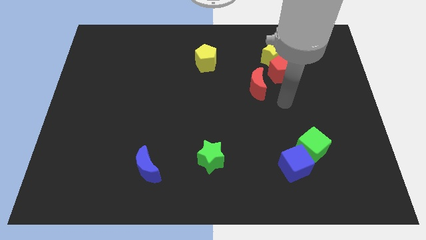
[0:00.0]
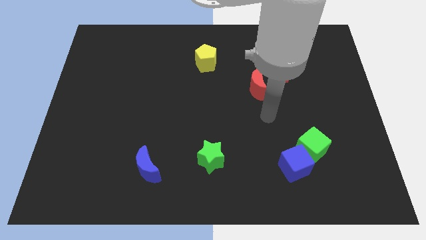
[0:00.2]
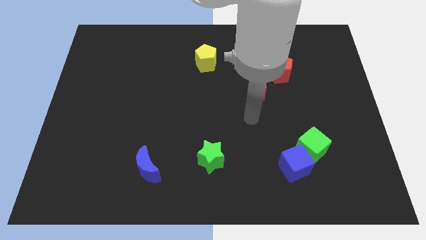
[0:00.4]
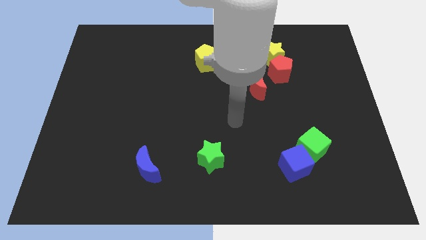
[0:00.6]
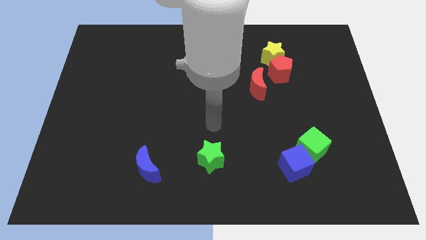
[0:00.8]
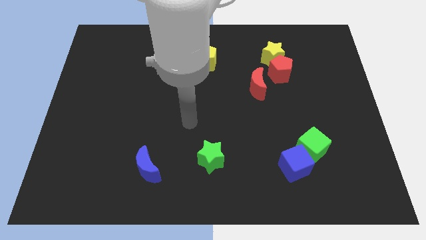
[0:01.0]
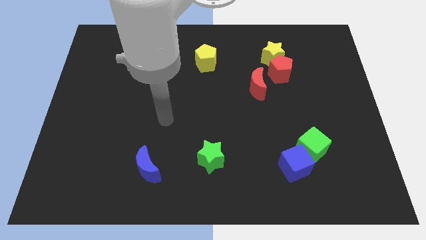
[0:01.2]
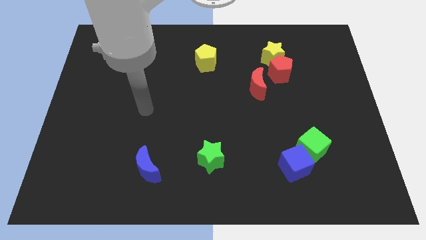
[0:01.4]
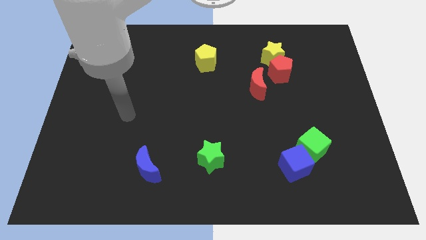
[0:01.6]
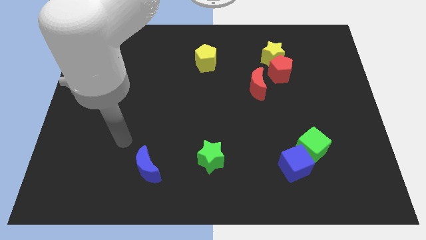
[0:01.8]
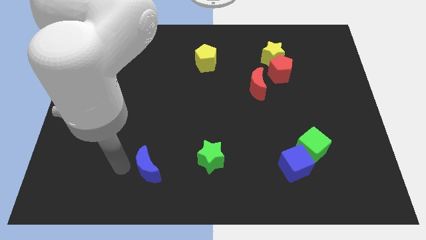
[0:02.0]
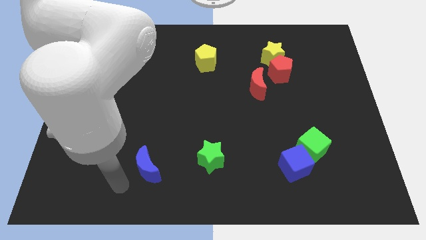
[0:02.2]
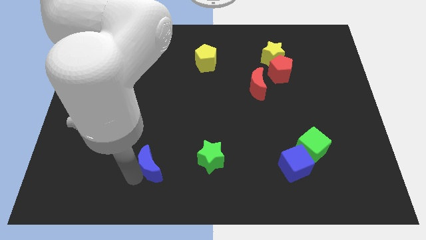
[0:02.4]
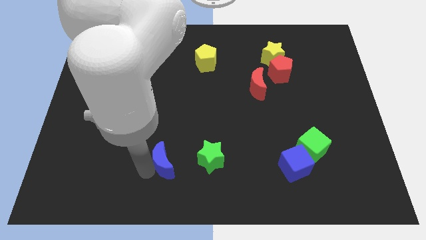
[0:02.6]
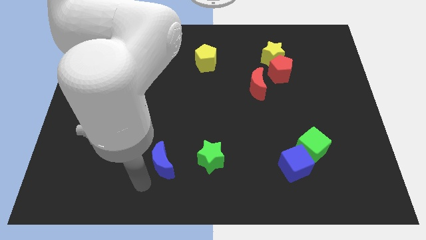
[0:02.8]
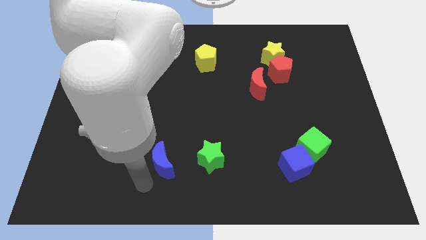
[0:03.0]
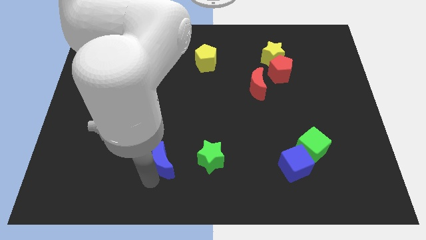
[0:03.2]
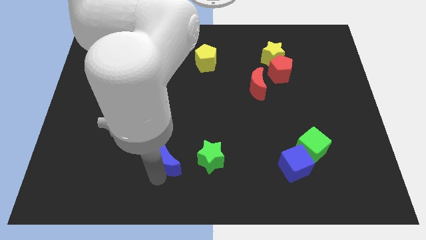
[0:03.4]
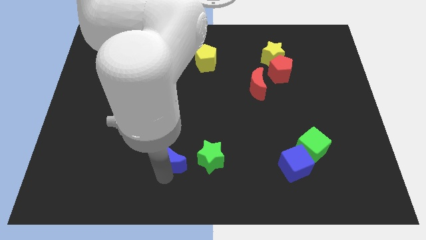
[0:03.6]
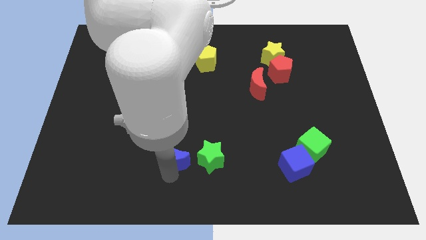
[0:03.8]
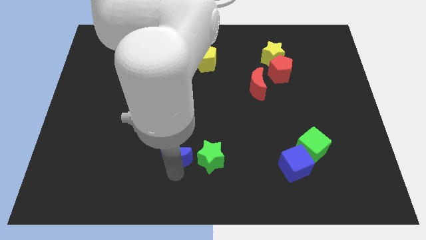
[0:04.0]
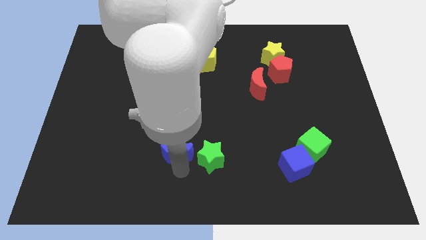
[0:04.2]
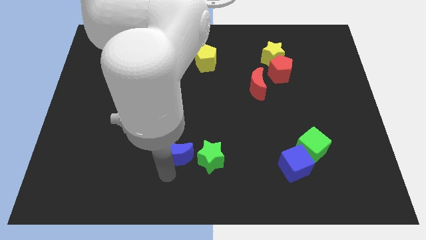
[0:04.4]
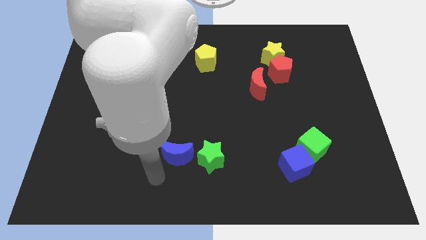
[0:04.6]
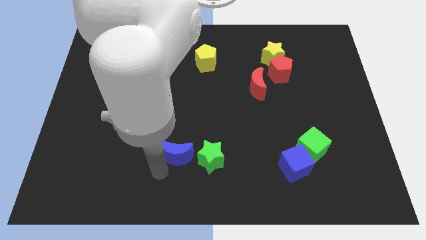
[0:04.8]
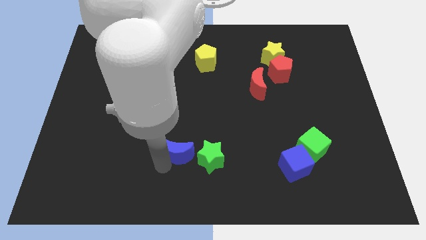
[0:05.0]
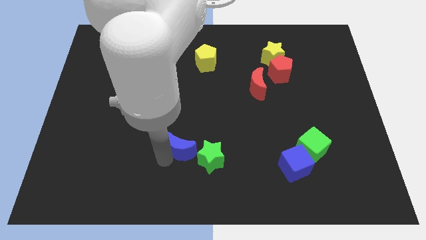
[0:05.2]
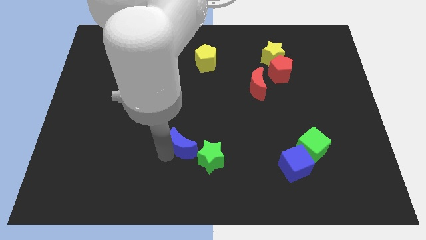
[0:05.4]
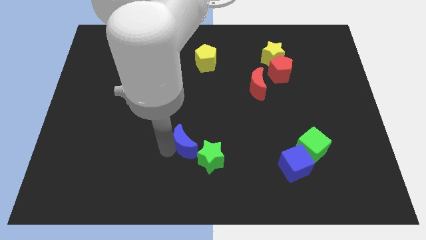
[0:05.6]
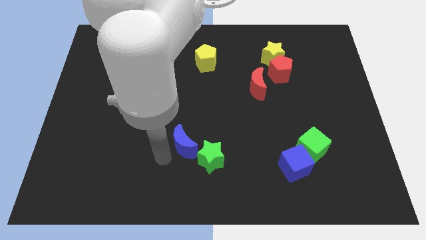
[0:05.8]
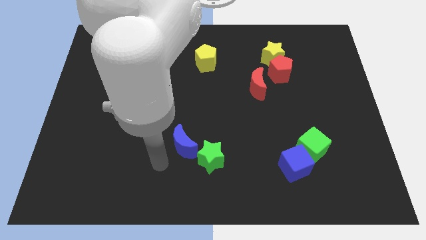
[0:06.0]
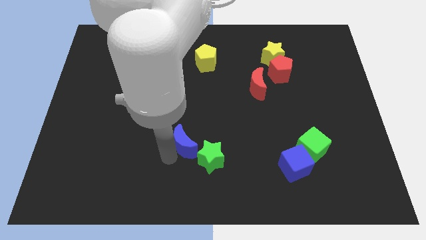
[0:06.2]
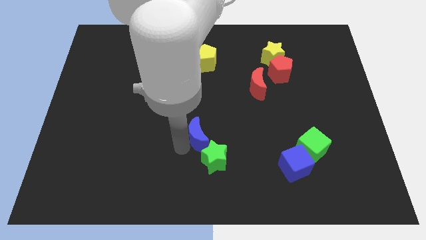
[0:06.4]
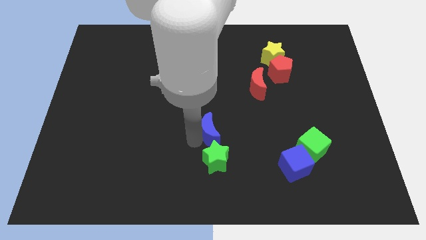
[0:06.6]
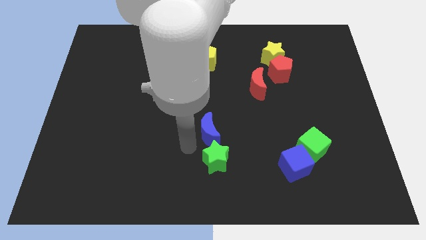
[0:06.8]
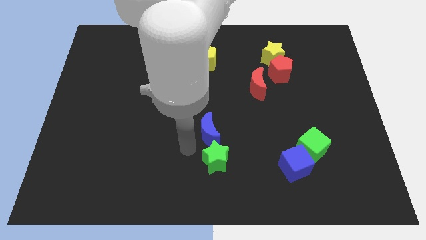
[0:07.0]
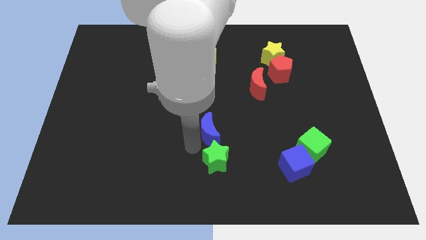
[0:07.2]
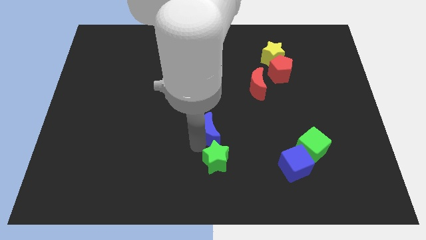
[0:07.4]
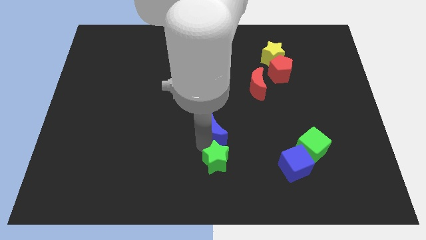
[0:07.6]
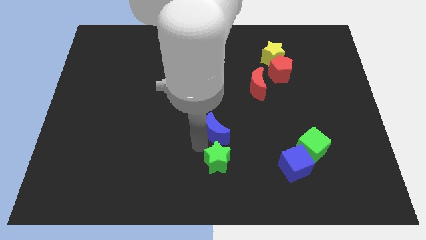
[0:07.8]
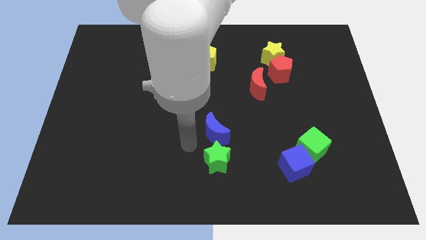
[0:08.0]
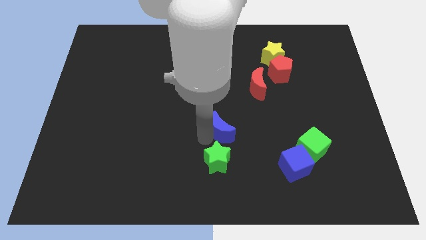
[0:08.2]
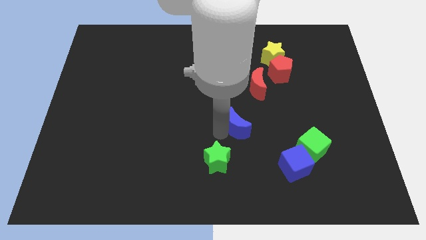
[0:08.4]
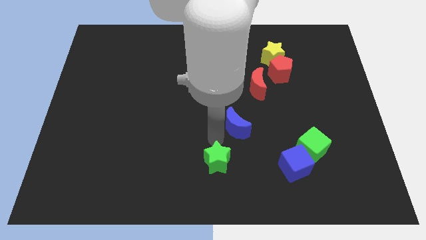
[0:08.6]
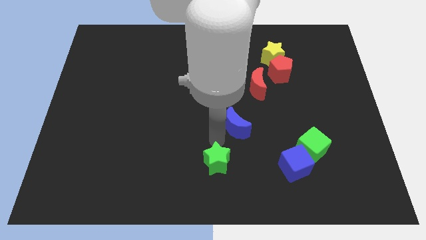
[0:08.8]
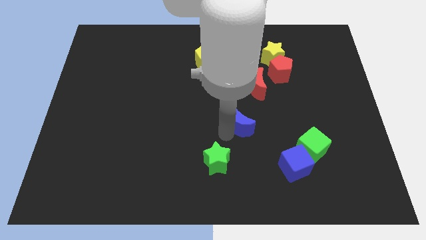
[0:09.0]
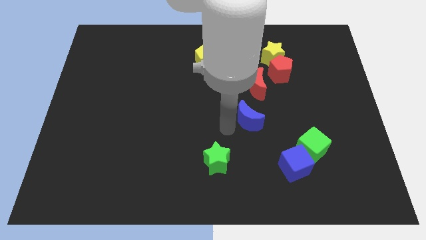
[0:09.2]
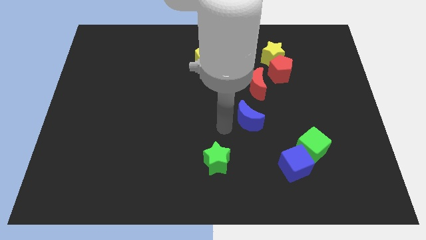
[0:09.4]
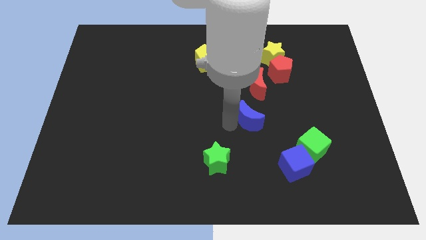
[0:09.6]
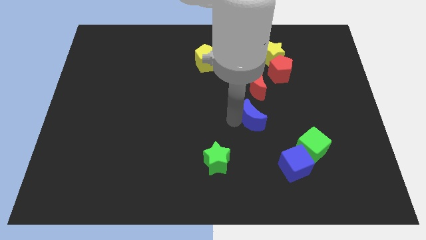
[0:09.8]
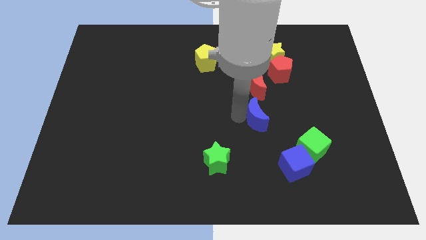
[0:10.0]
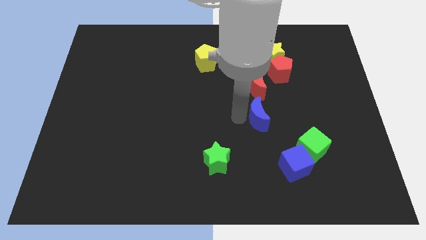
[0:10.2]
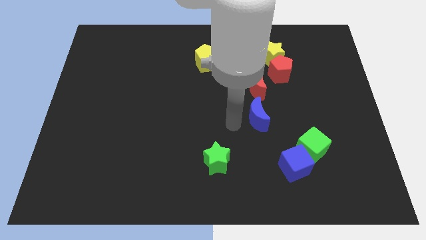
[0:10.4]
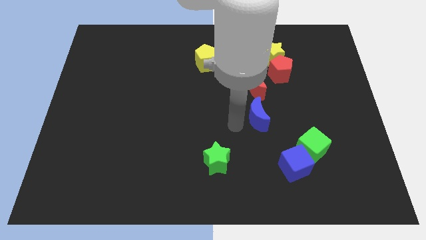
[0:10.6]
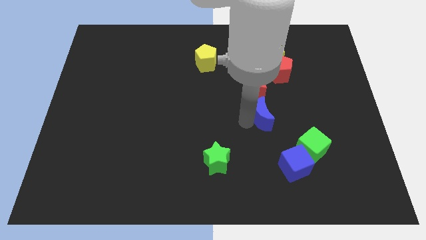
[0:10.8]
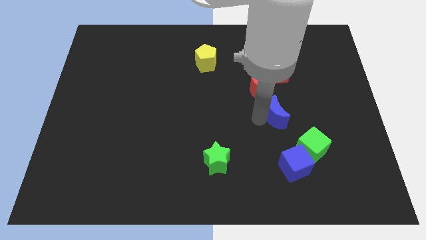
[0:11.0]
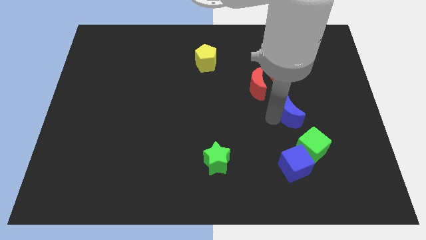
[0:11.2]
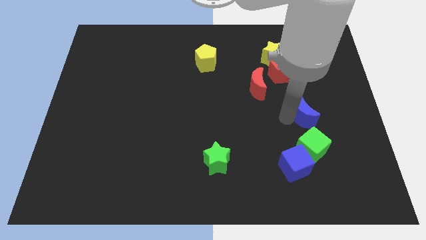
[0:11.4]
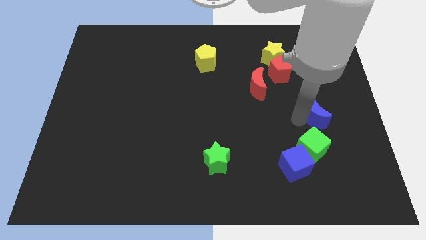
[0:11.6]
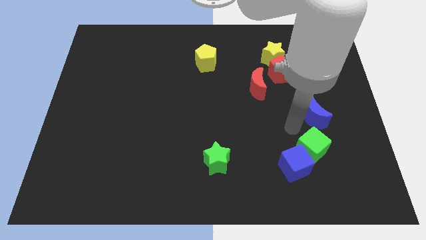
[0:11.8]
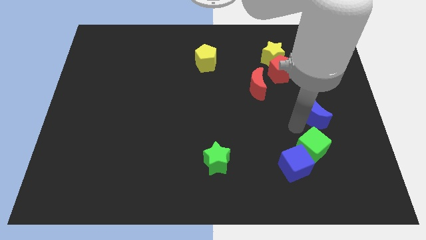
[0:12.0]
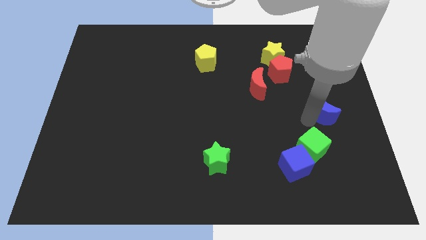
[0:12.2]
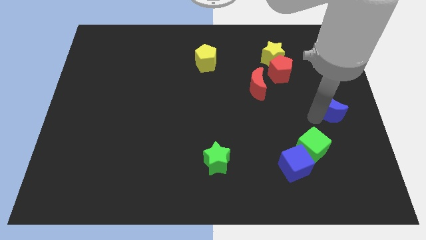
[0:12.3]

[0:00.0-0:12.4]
push the blue moon to the right side of the board

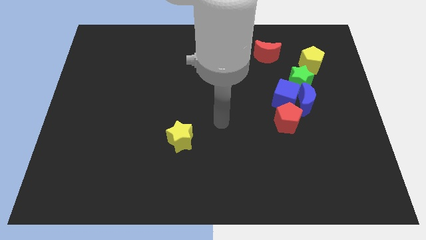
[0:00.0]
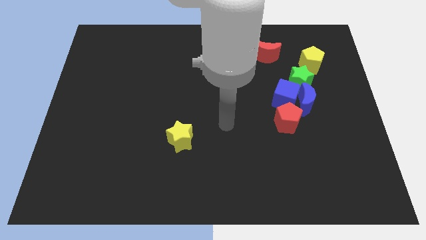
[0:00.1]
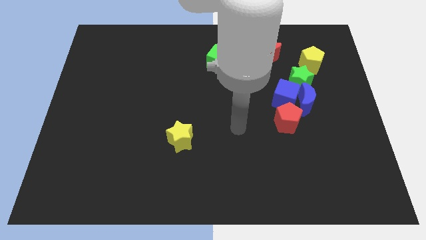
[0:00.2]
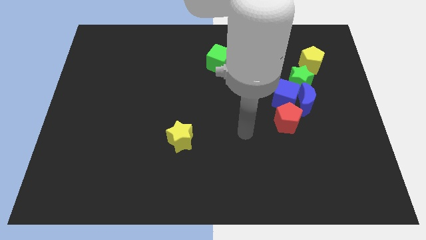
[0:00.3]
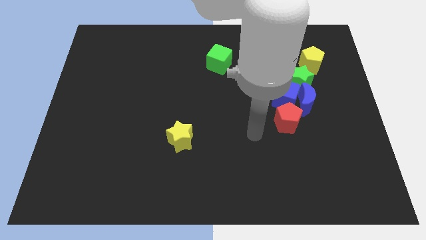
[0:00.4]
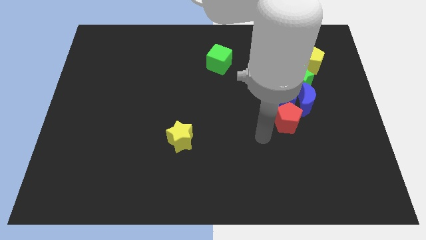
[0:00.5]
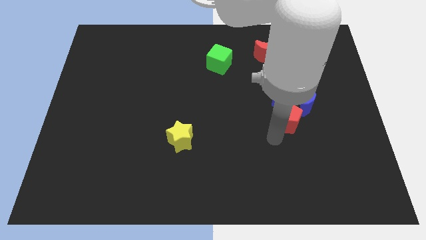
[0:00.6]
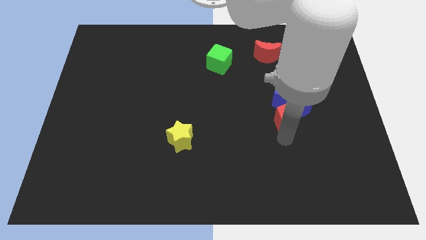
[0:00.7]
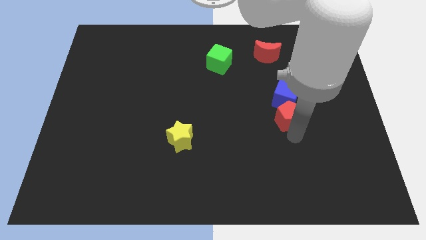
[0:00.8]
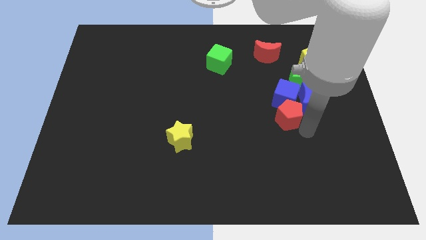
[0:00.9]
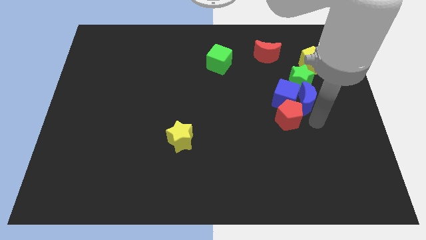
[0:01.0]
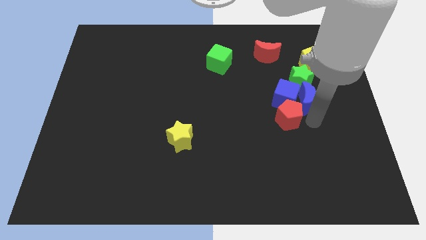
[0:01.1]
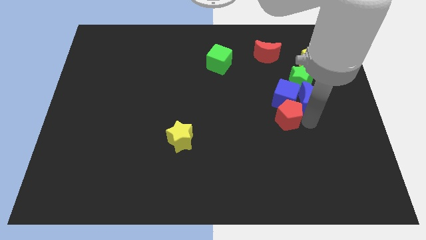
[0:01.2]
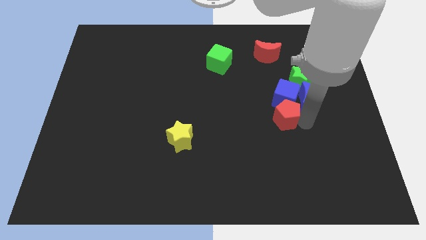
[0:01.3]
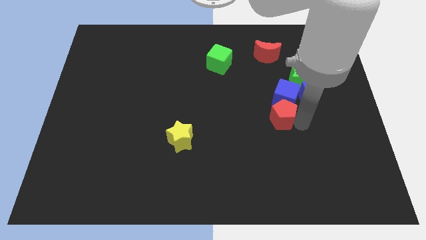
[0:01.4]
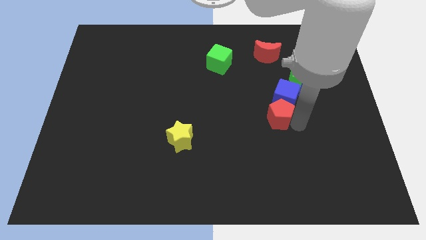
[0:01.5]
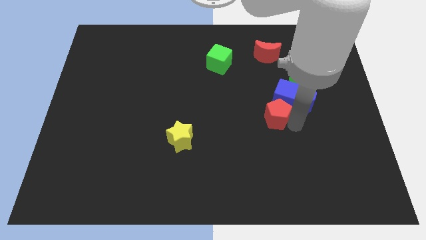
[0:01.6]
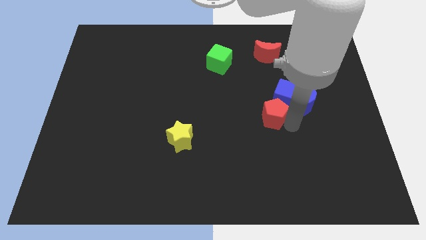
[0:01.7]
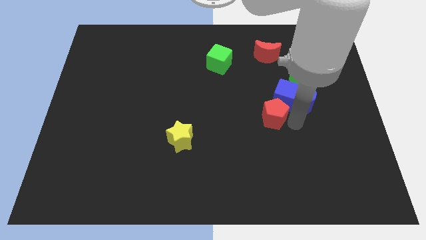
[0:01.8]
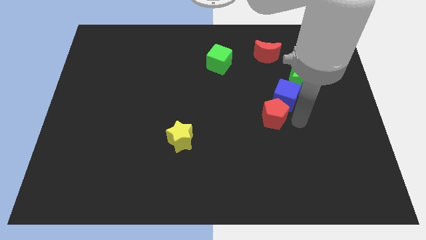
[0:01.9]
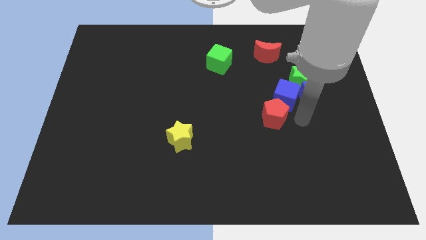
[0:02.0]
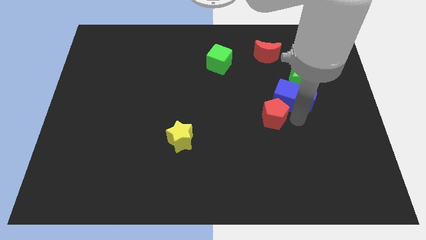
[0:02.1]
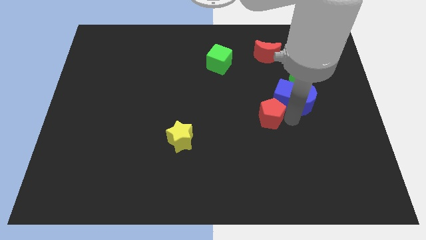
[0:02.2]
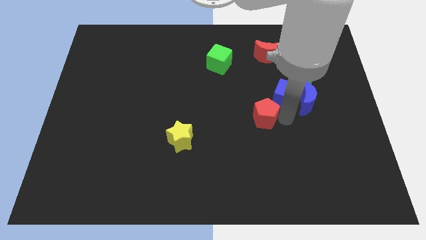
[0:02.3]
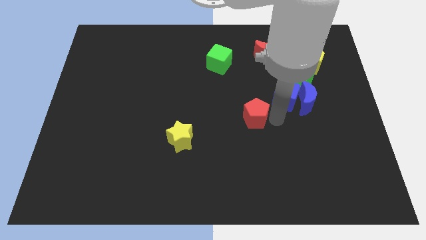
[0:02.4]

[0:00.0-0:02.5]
put the red pentagon to the center of the board
